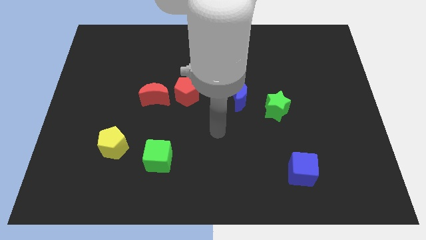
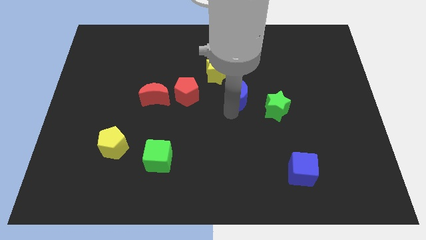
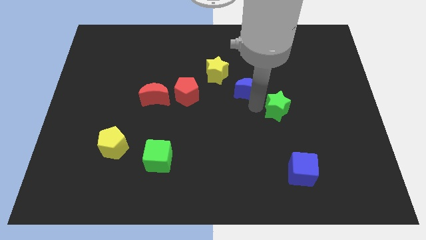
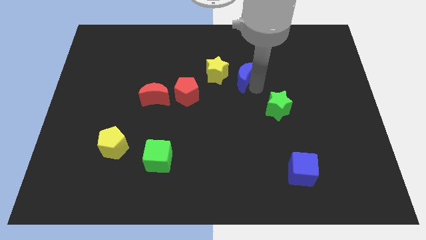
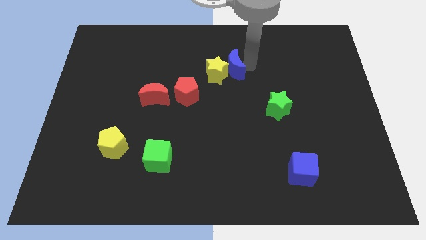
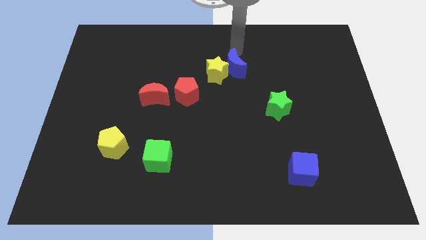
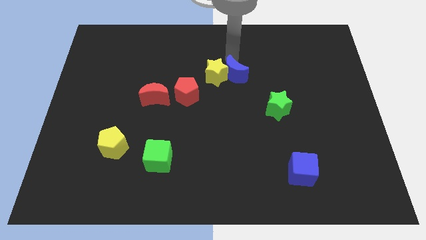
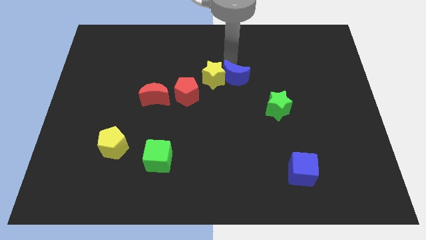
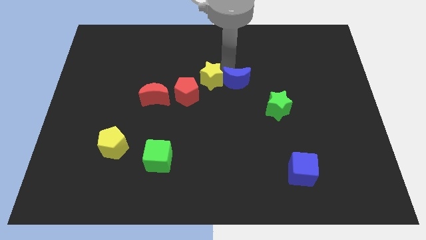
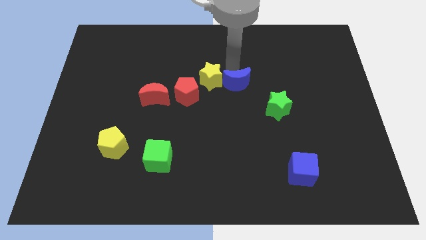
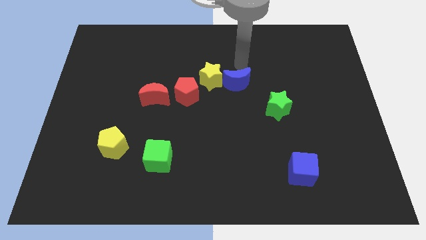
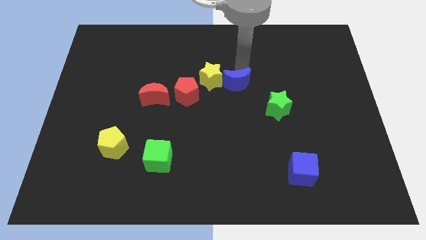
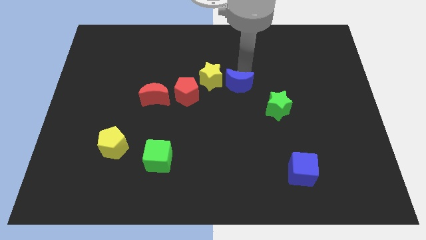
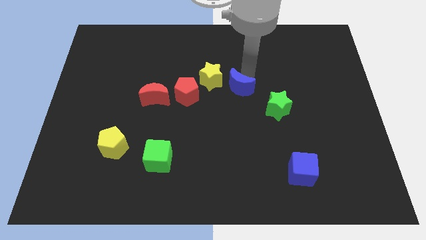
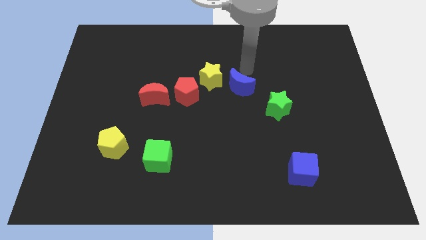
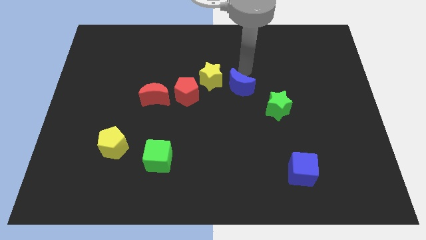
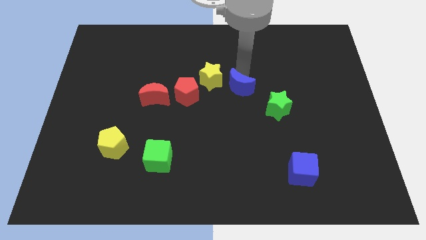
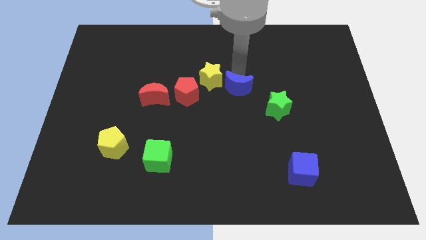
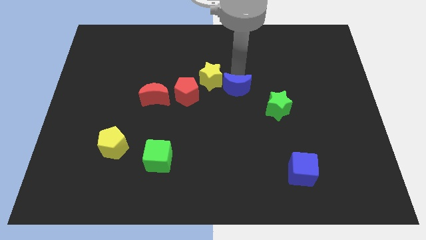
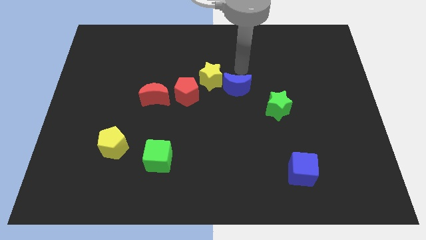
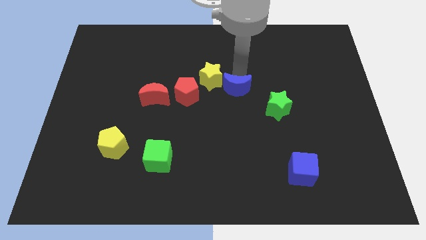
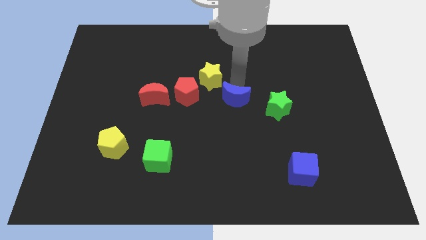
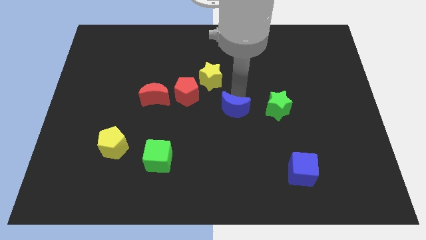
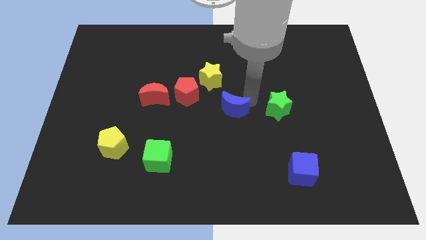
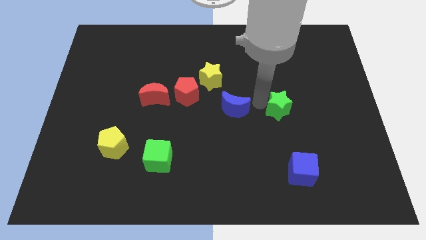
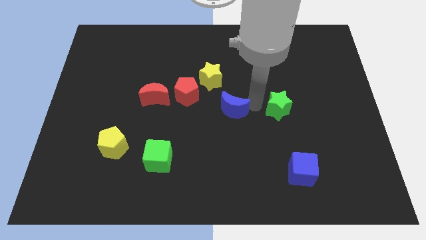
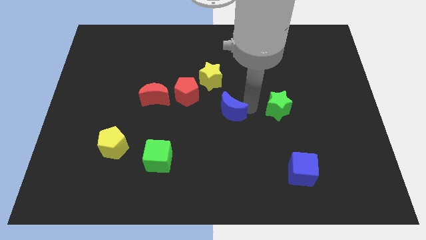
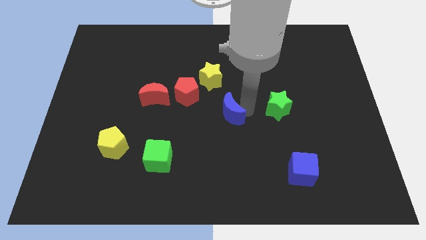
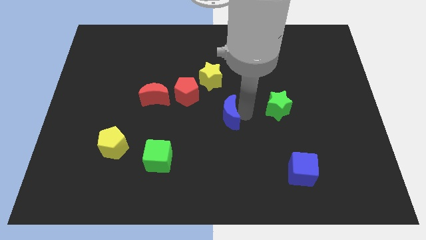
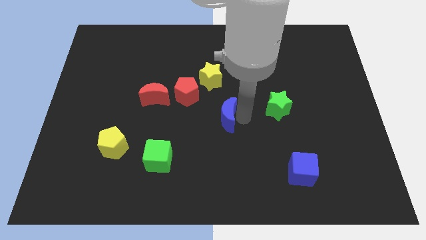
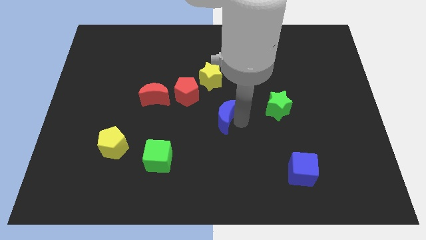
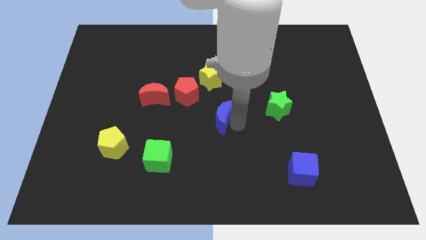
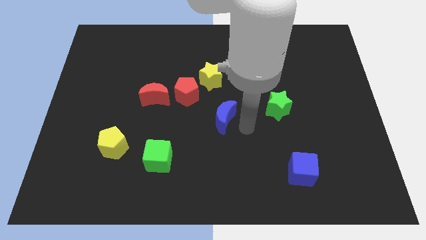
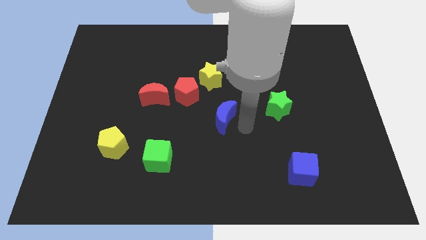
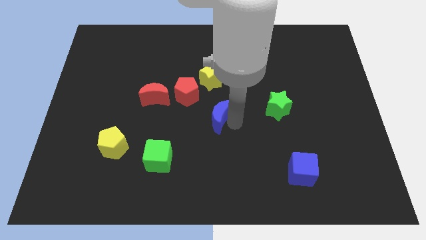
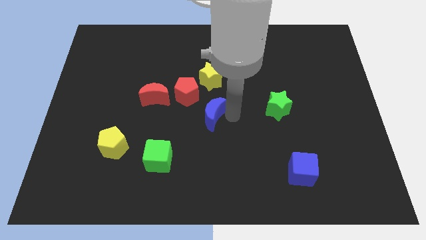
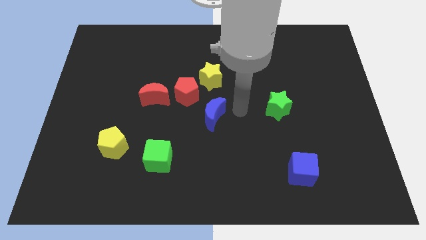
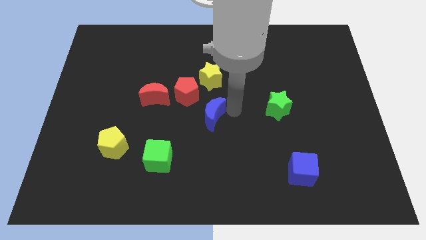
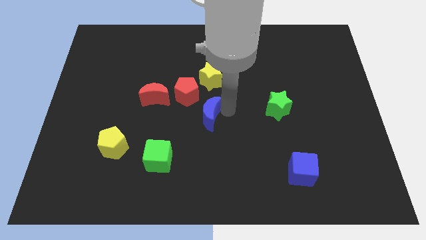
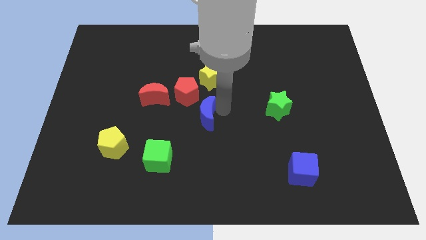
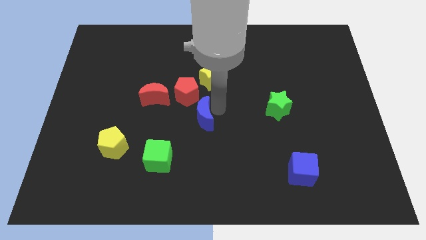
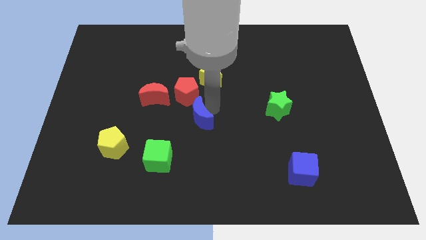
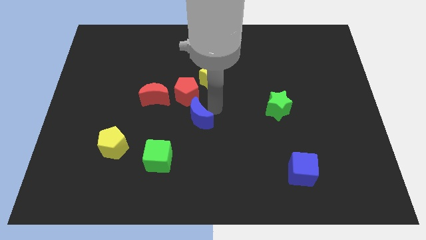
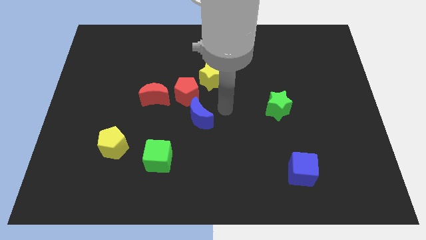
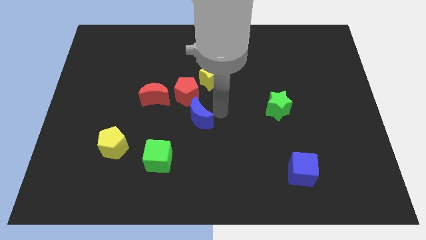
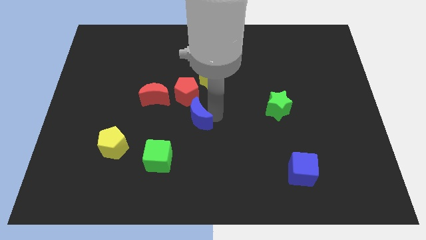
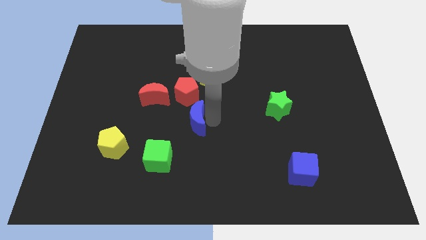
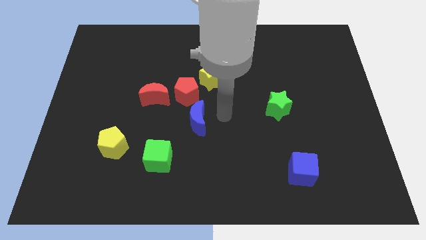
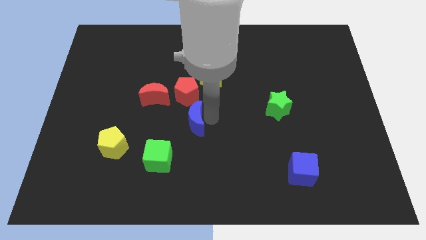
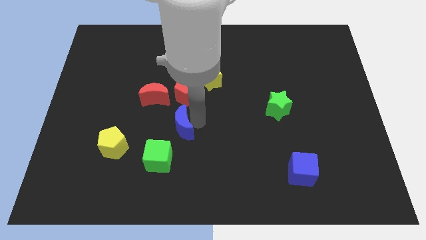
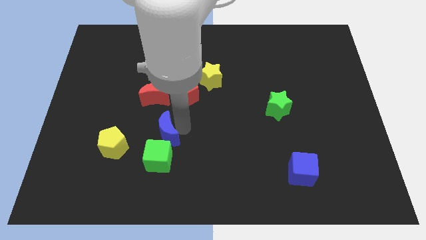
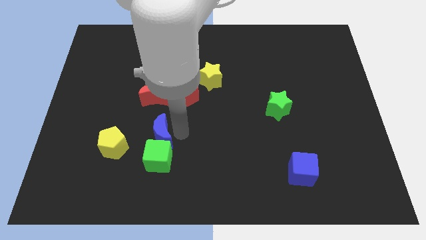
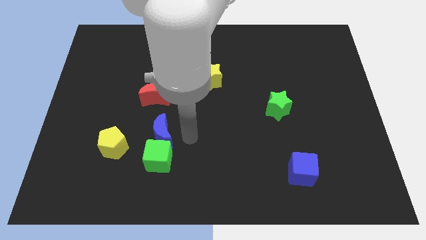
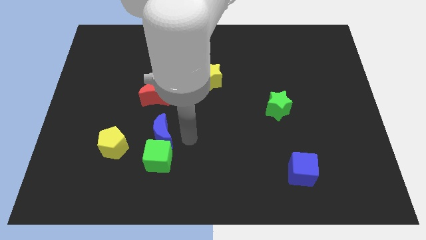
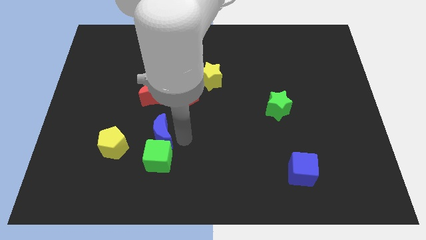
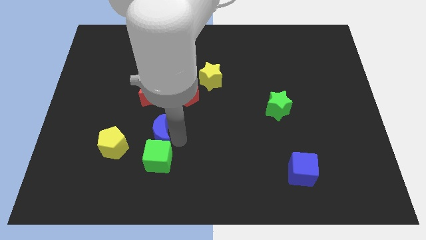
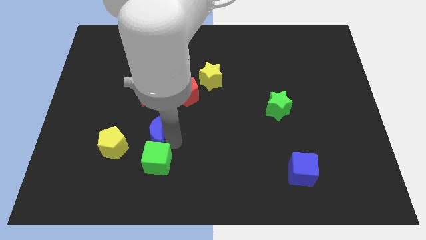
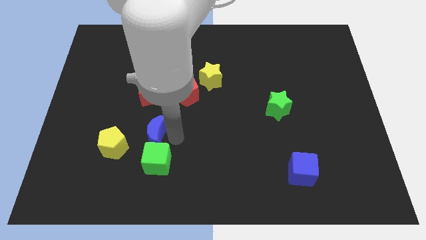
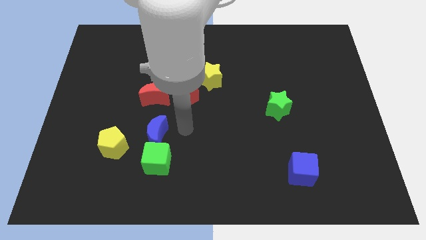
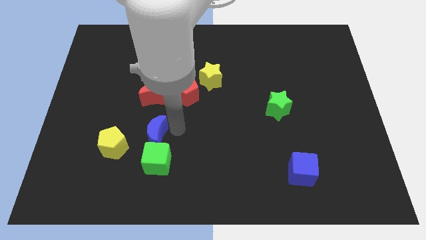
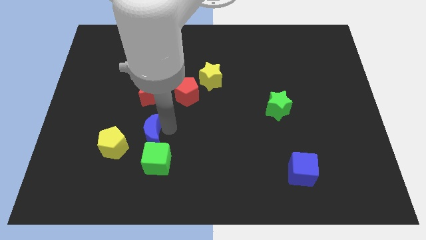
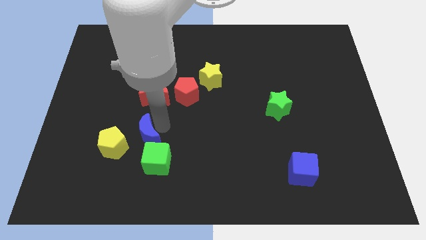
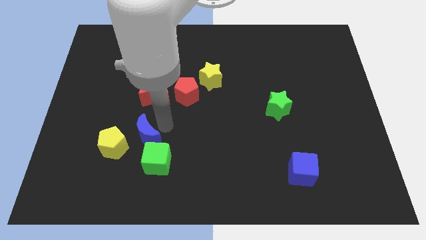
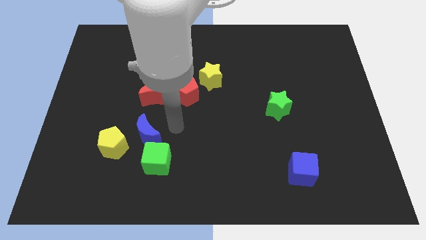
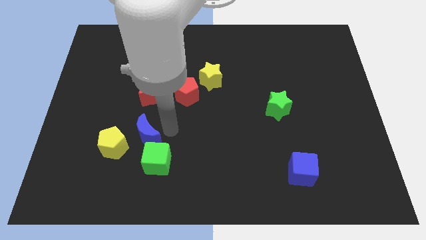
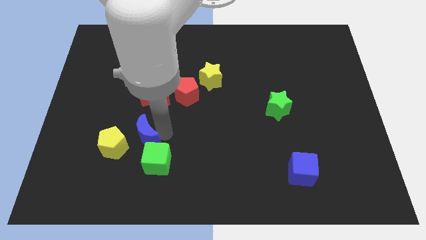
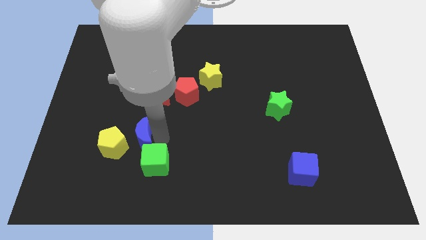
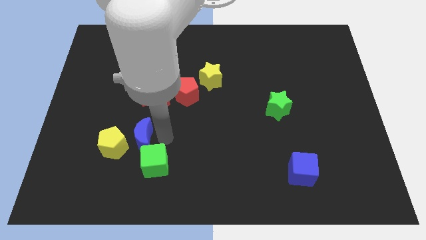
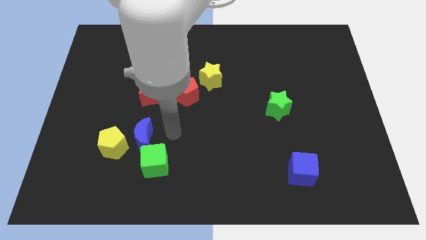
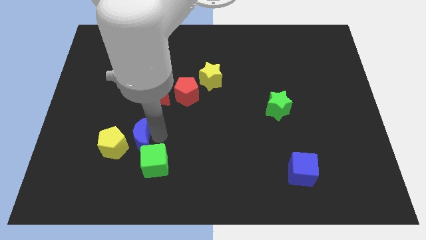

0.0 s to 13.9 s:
slide the blue moon next to the yellow pentagon
